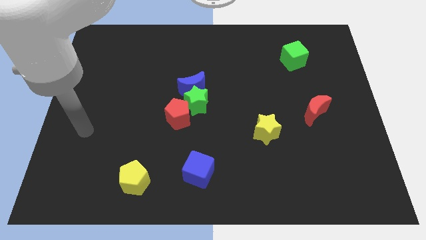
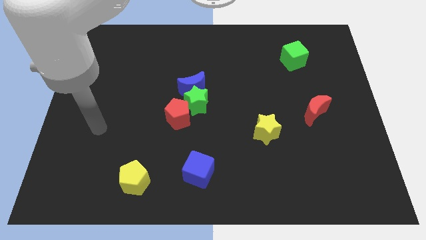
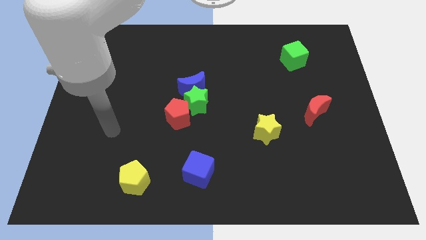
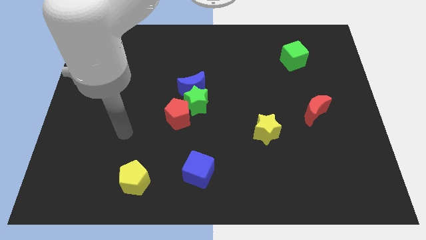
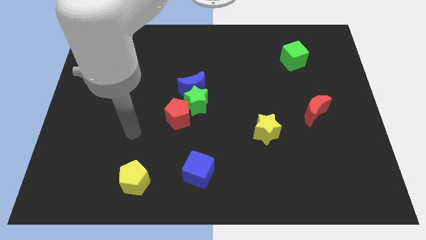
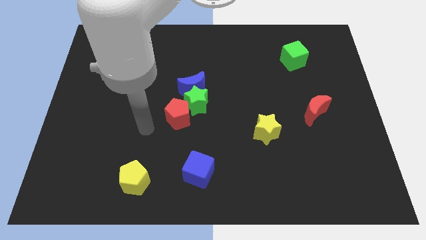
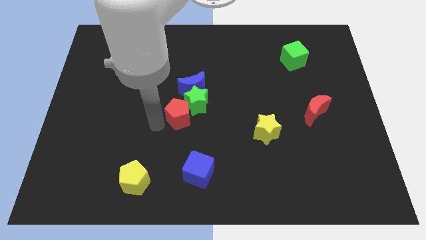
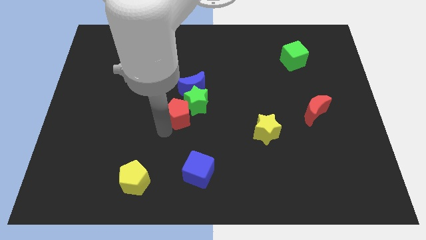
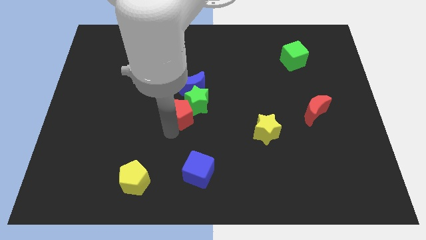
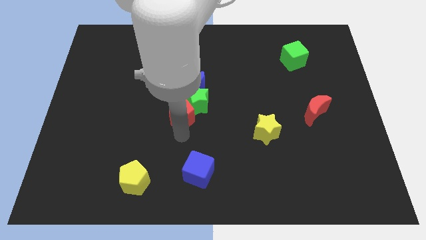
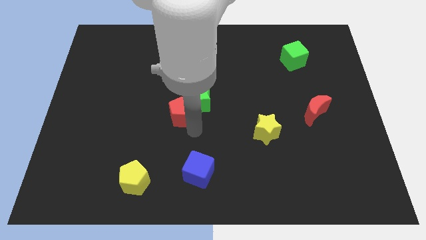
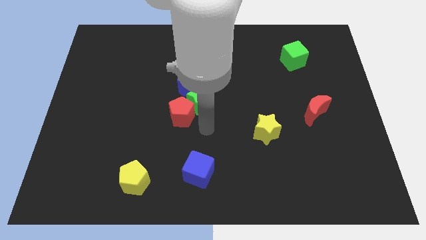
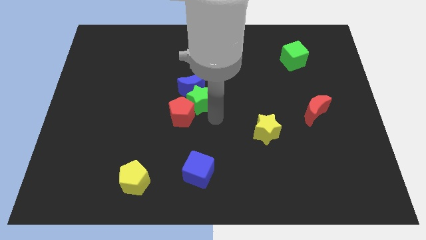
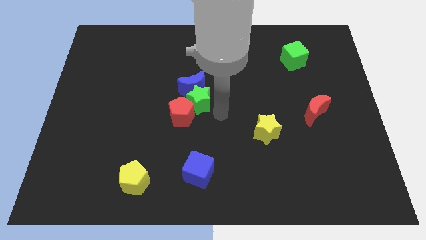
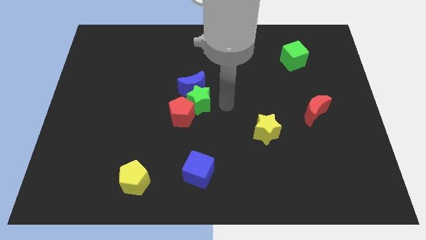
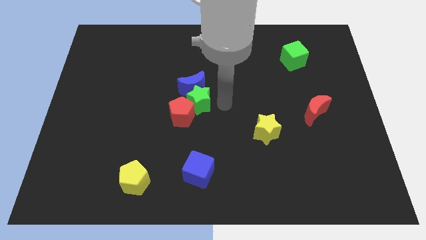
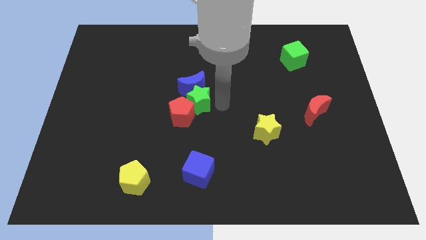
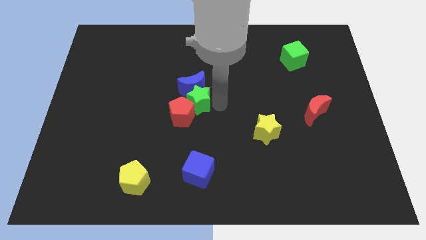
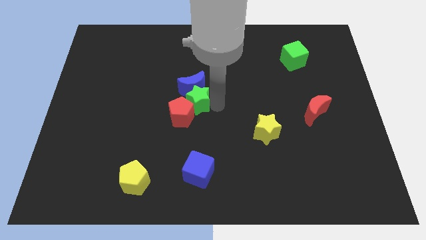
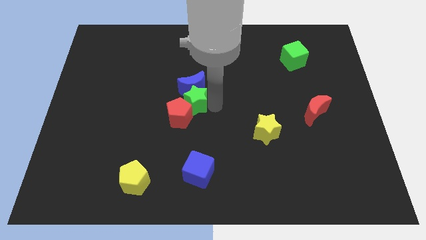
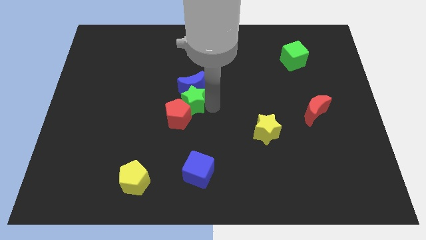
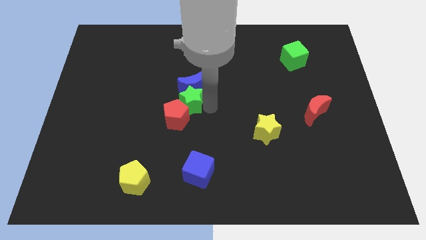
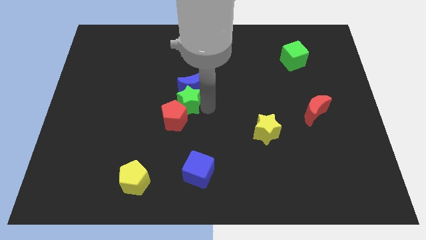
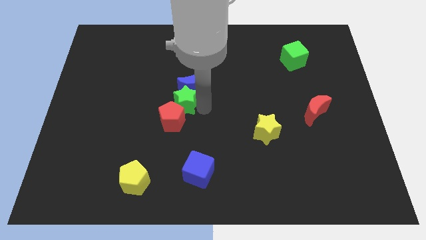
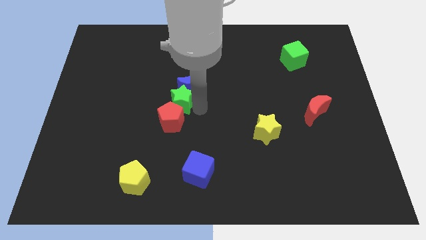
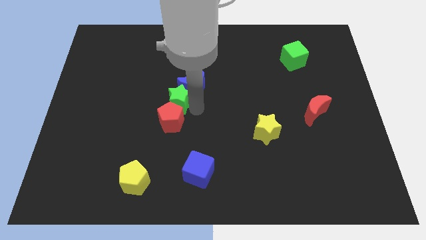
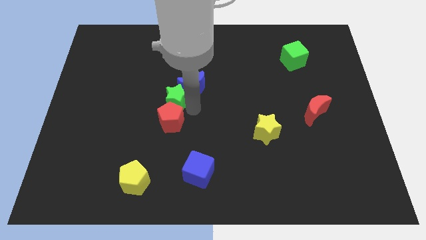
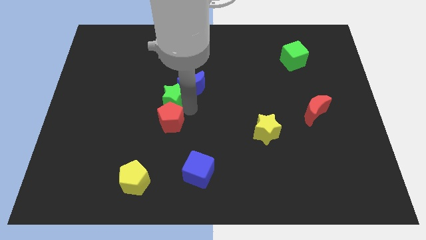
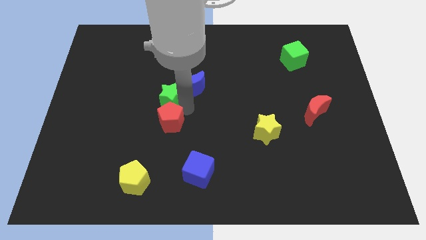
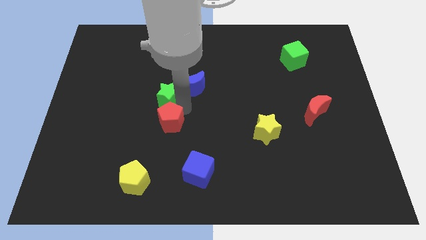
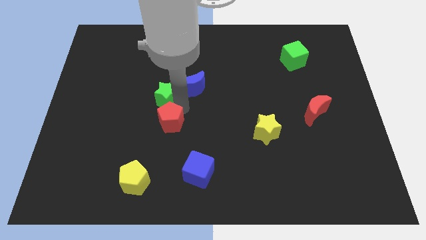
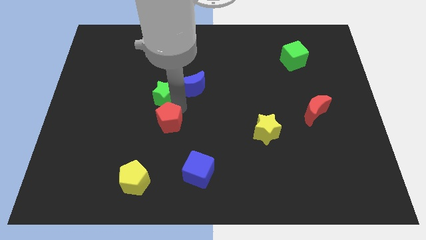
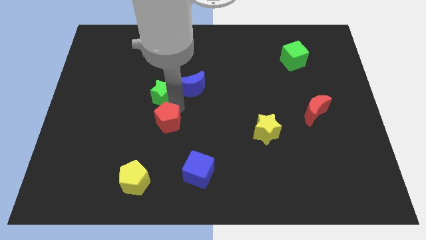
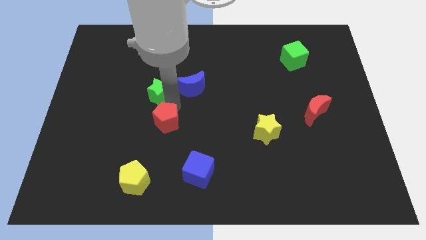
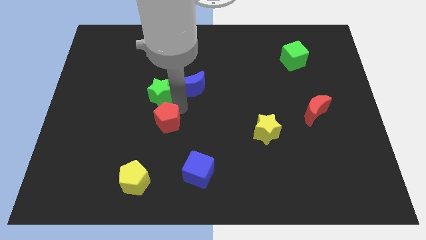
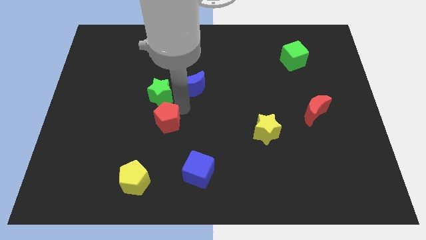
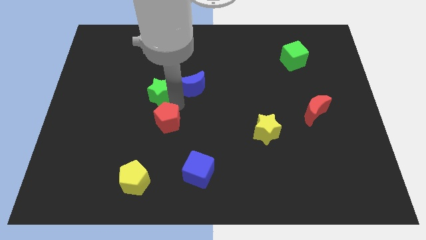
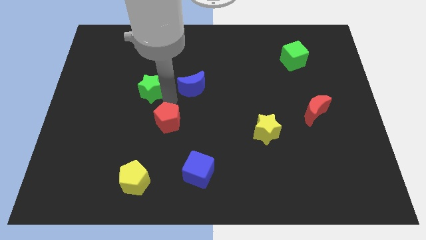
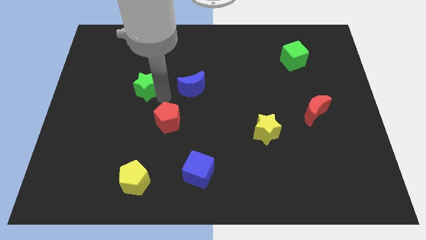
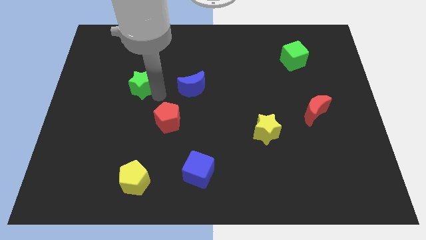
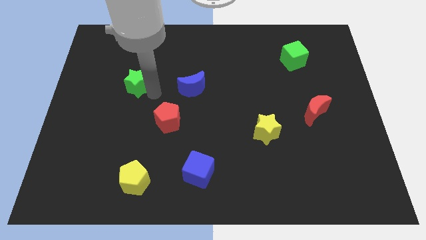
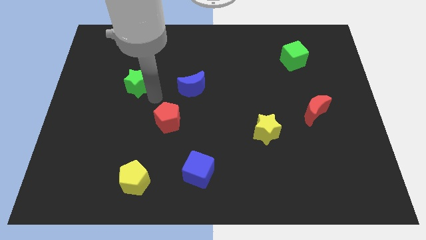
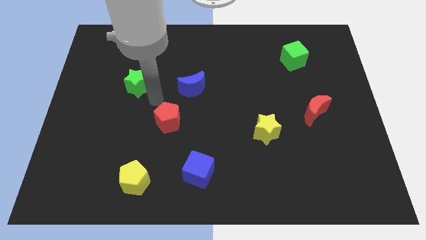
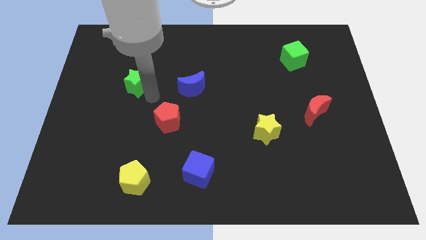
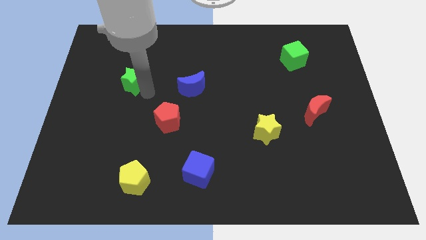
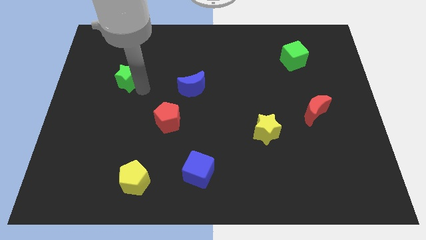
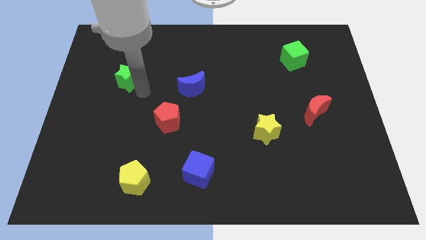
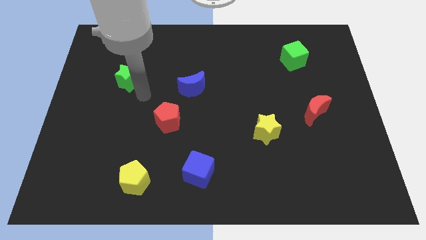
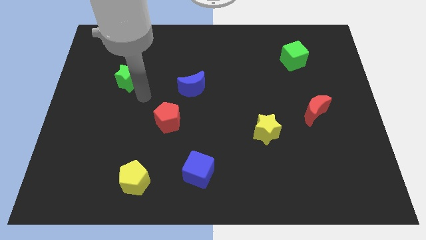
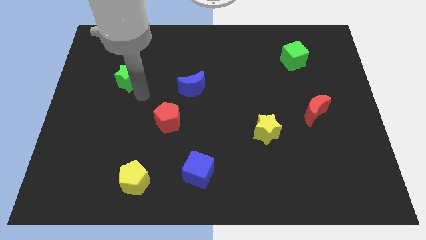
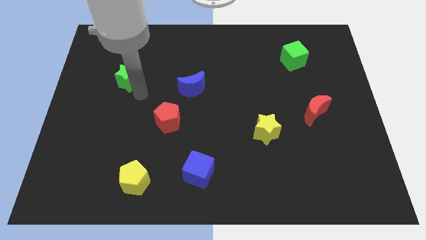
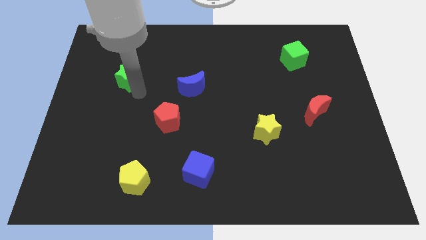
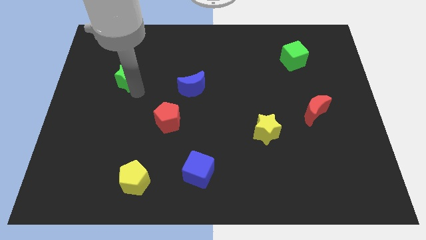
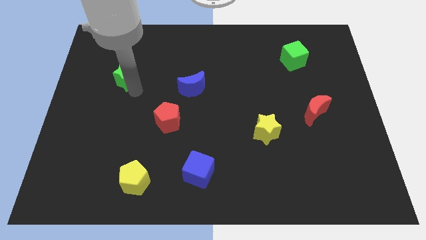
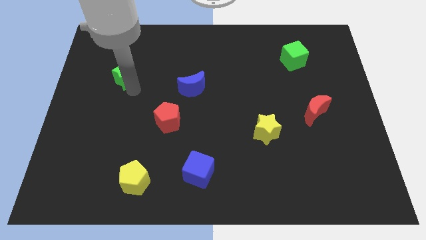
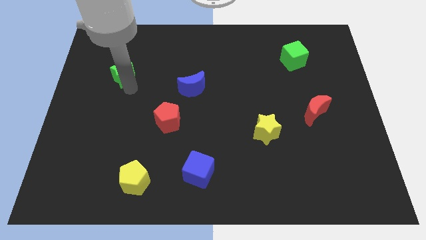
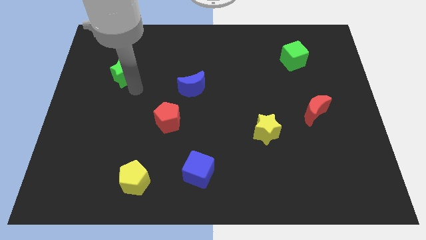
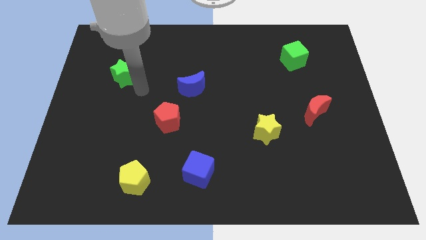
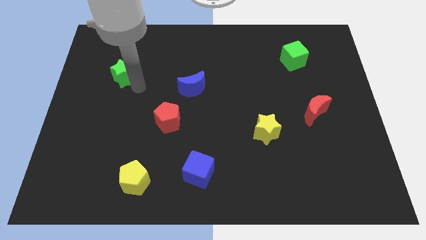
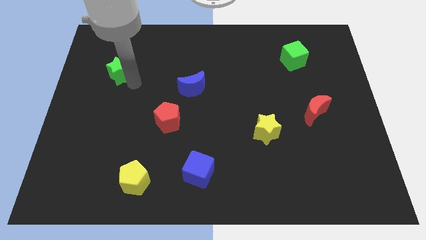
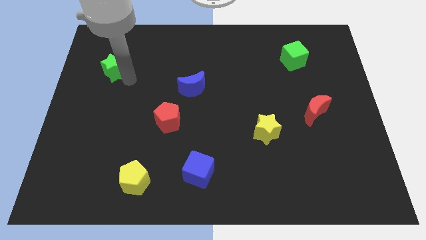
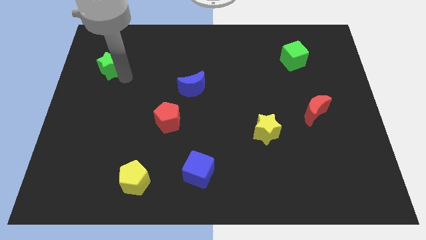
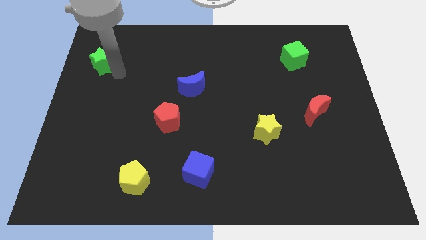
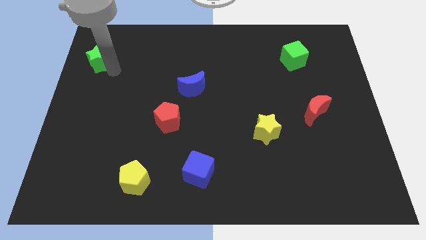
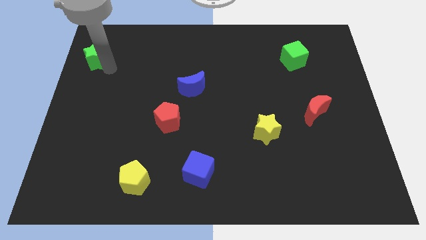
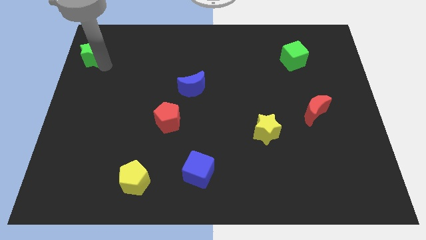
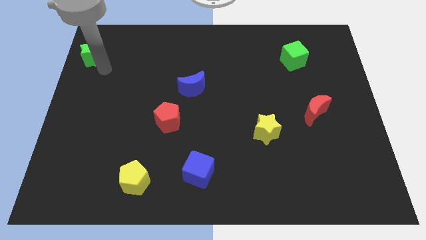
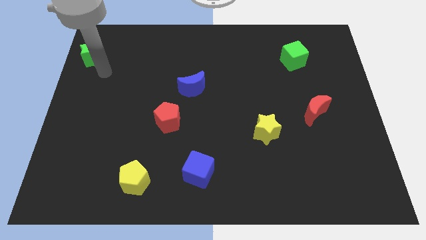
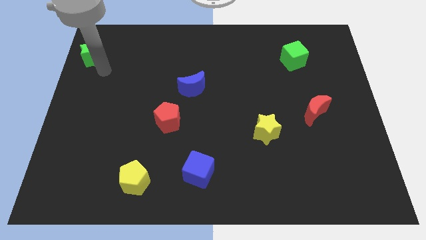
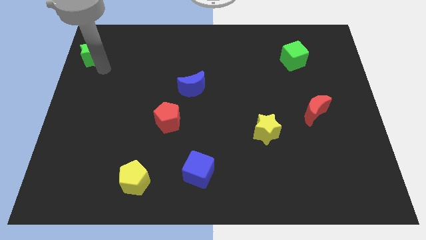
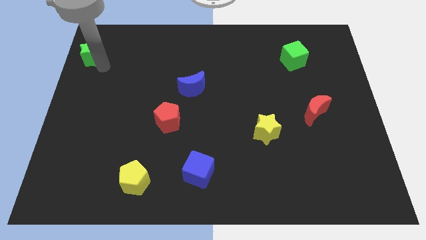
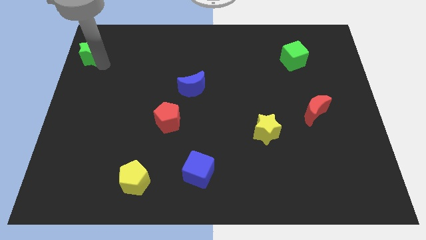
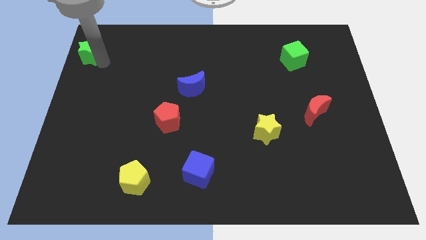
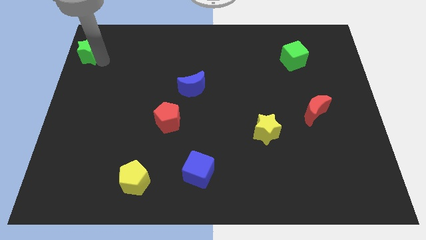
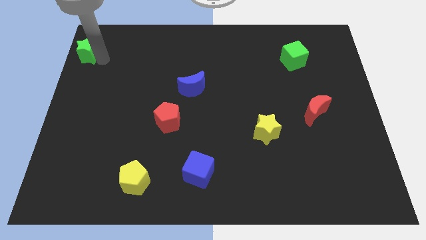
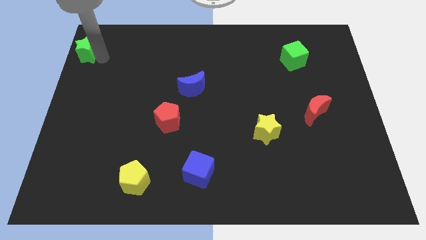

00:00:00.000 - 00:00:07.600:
put the green star to the top left
